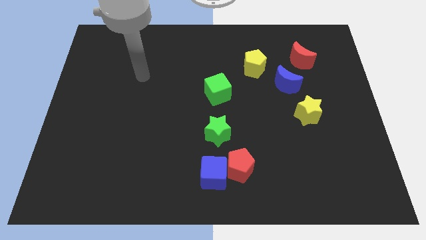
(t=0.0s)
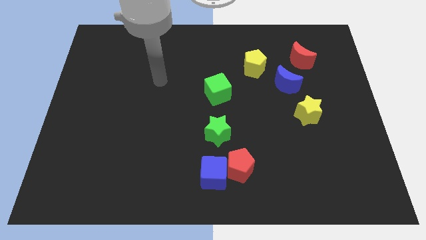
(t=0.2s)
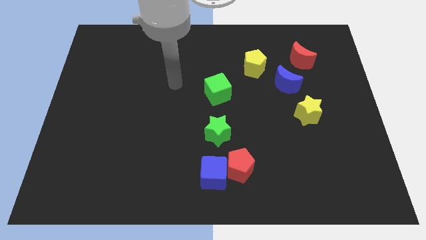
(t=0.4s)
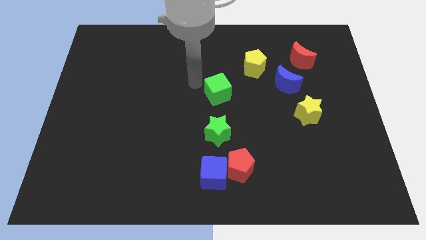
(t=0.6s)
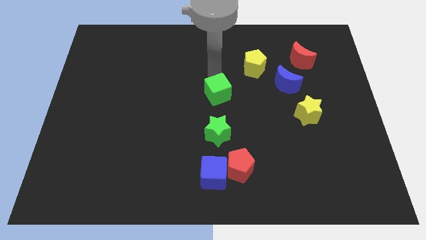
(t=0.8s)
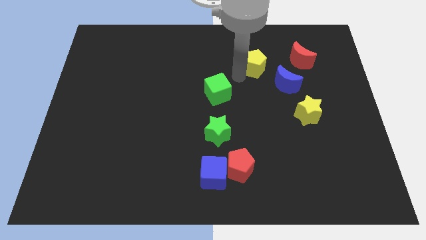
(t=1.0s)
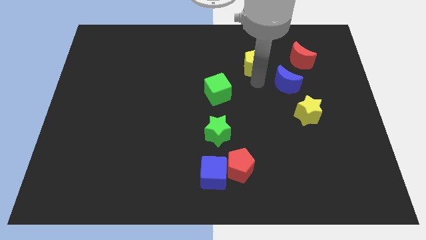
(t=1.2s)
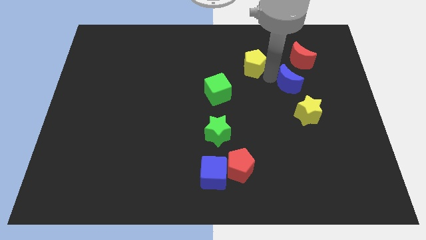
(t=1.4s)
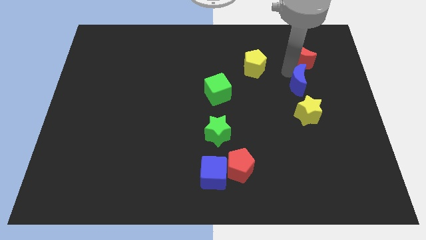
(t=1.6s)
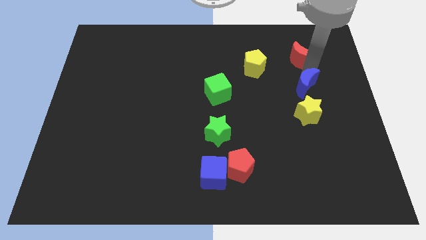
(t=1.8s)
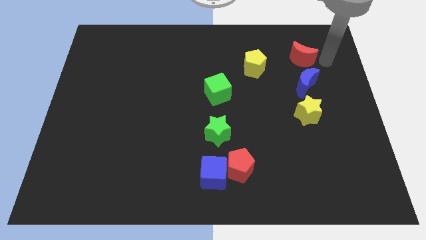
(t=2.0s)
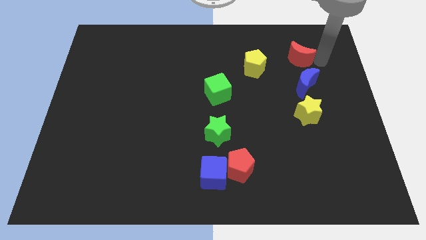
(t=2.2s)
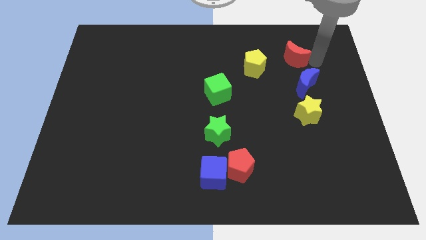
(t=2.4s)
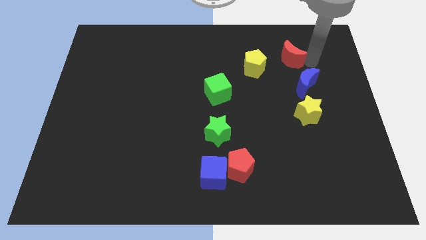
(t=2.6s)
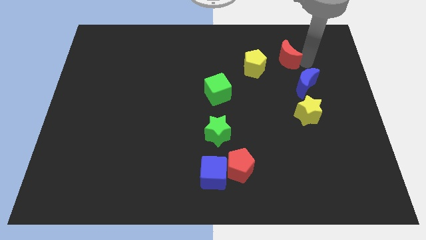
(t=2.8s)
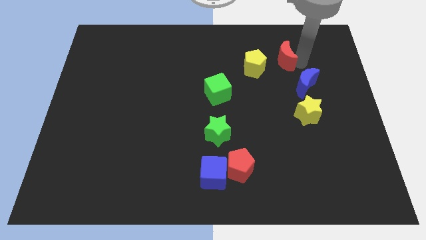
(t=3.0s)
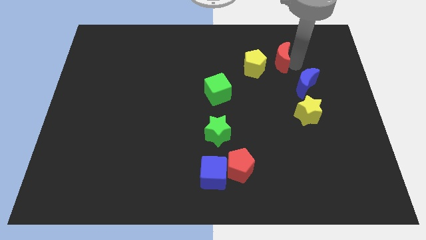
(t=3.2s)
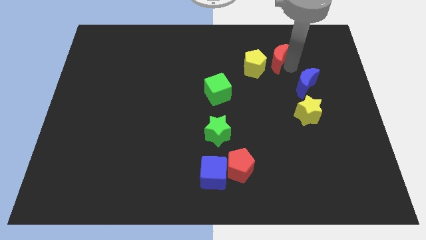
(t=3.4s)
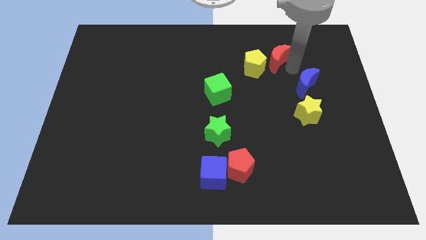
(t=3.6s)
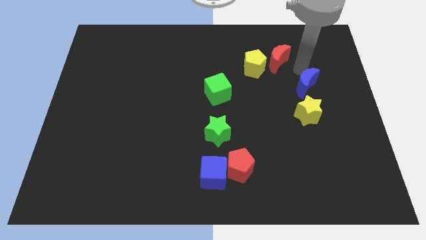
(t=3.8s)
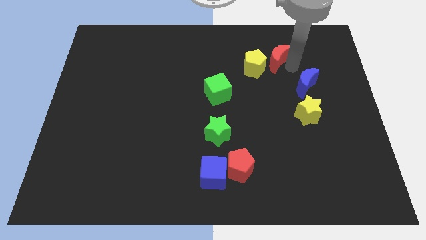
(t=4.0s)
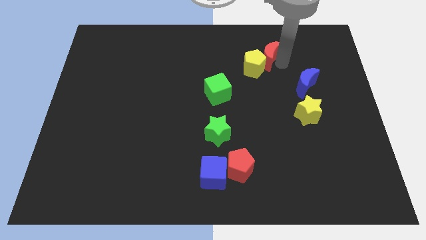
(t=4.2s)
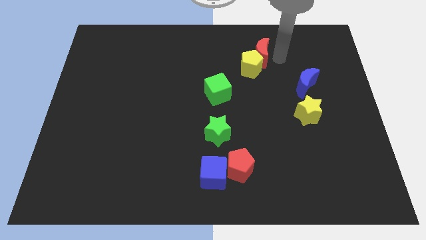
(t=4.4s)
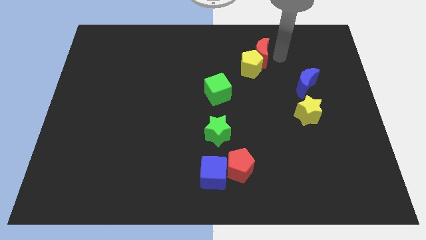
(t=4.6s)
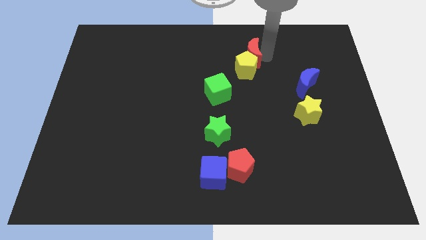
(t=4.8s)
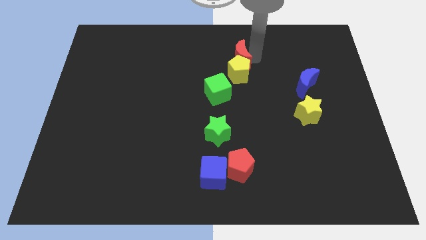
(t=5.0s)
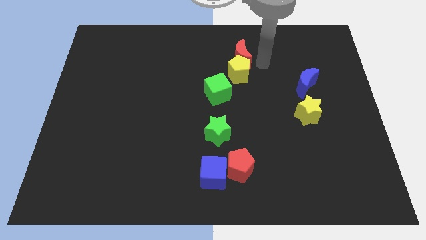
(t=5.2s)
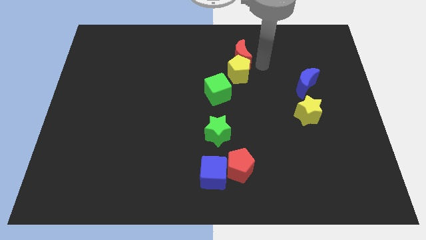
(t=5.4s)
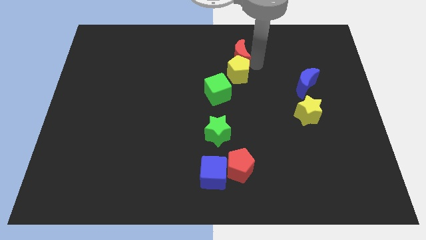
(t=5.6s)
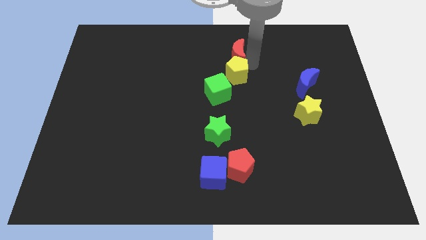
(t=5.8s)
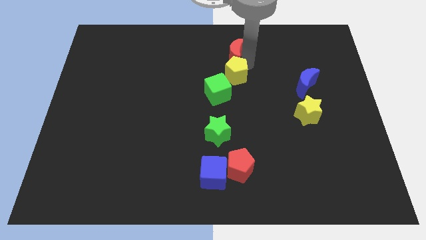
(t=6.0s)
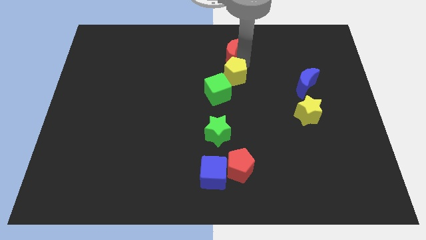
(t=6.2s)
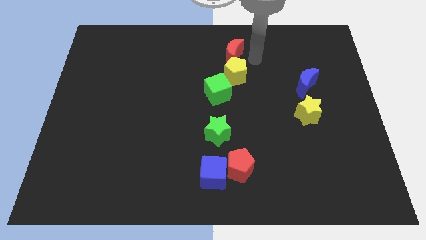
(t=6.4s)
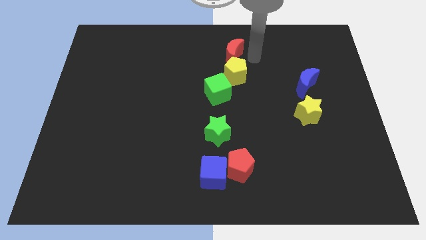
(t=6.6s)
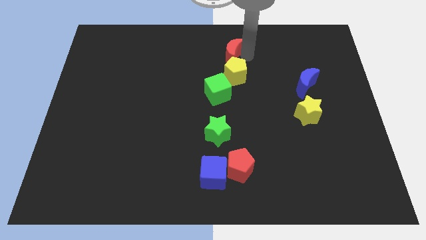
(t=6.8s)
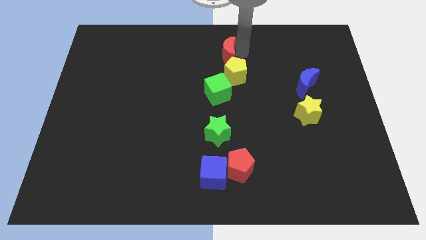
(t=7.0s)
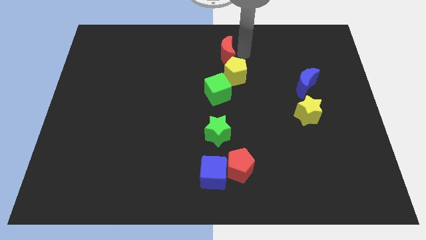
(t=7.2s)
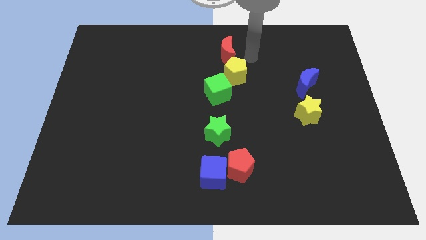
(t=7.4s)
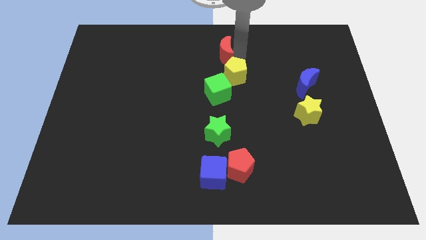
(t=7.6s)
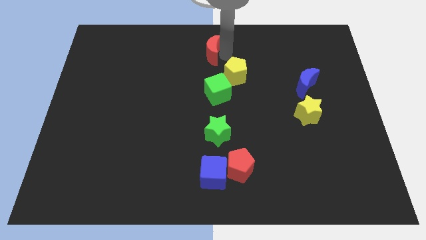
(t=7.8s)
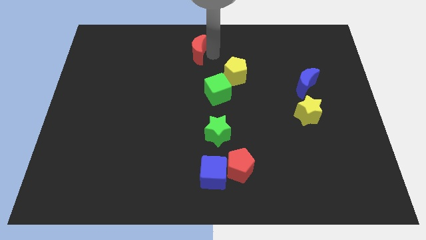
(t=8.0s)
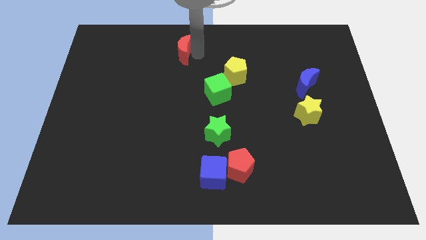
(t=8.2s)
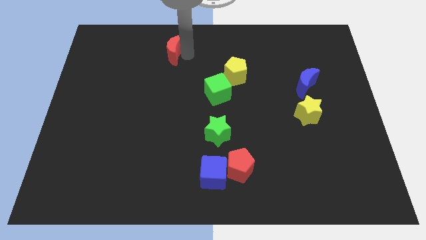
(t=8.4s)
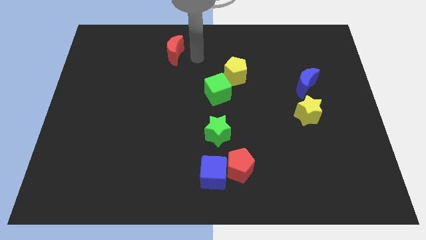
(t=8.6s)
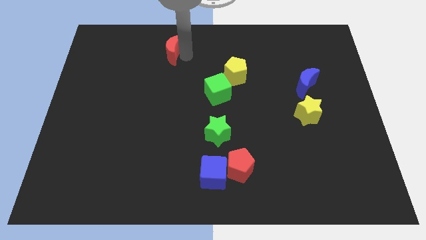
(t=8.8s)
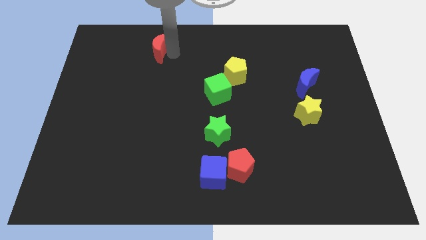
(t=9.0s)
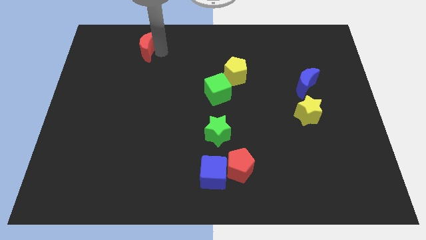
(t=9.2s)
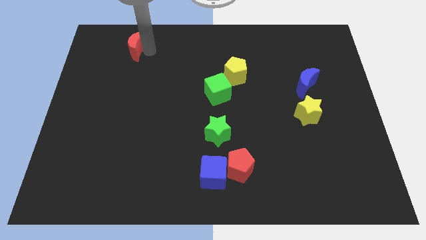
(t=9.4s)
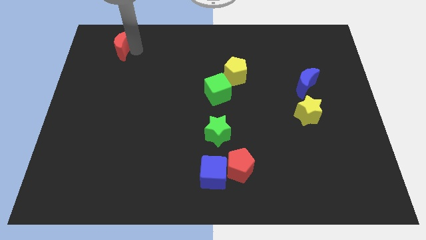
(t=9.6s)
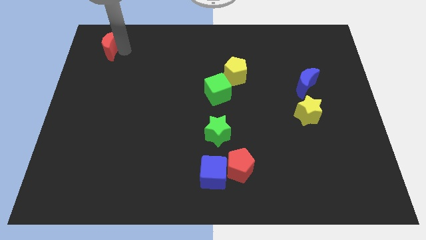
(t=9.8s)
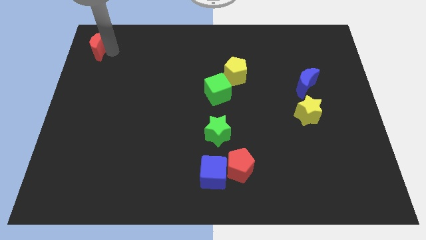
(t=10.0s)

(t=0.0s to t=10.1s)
push the red moon to the top left

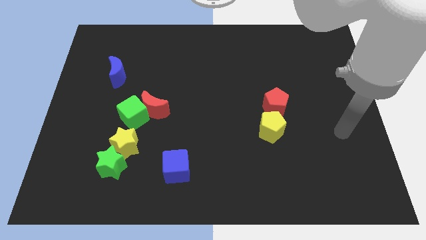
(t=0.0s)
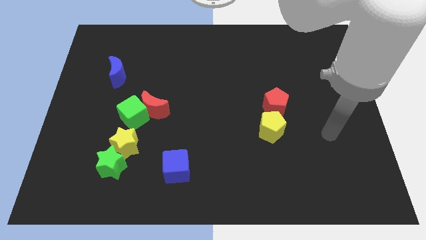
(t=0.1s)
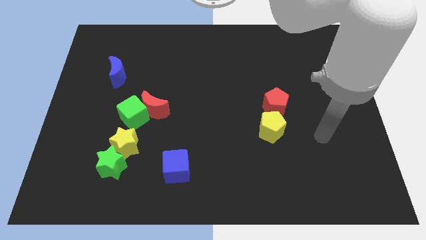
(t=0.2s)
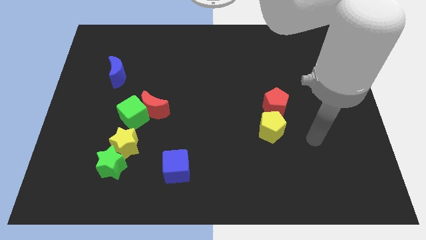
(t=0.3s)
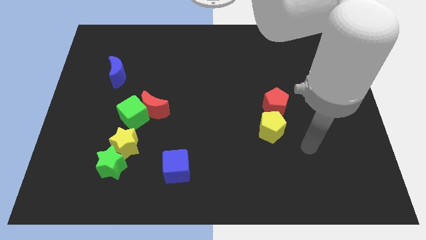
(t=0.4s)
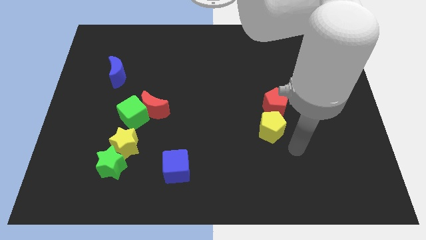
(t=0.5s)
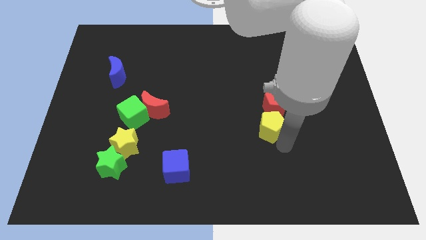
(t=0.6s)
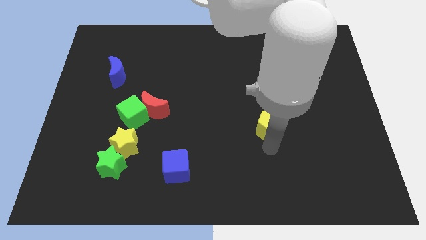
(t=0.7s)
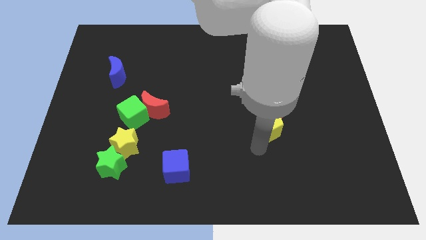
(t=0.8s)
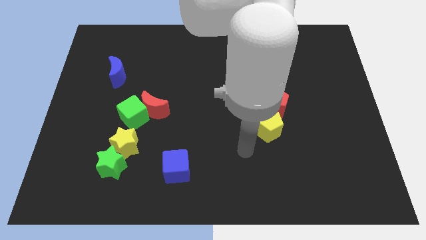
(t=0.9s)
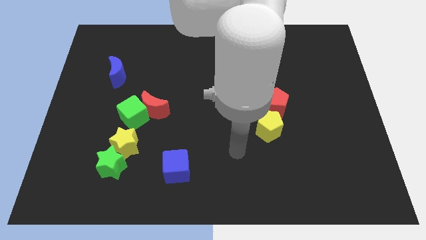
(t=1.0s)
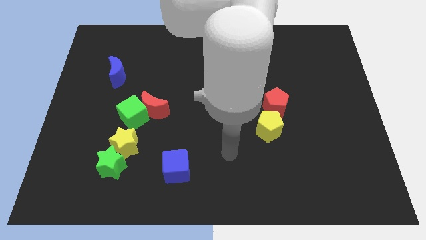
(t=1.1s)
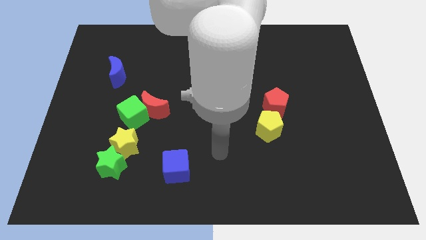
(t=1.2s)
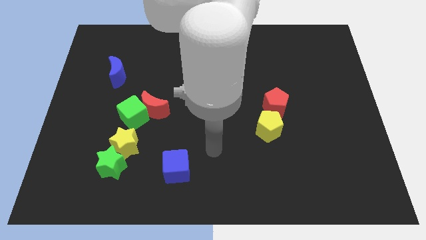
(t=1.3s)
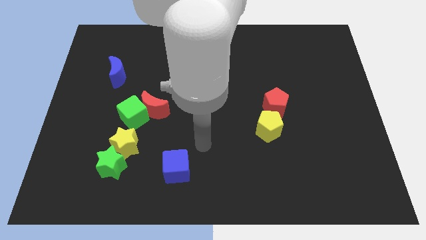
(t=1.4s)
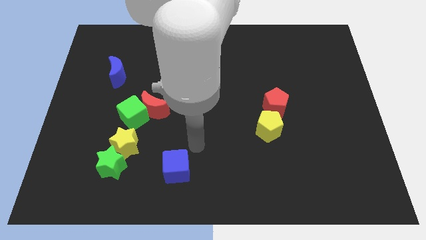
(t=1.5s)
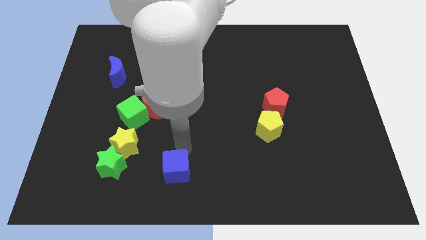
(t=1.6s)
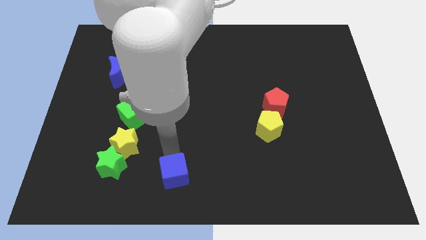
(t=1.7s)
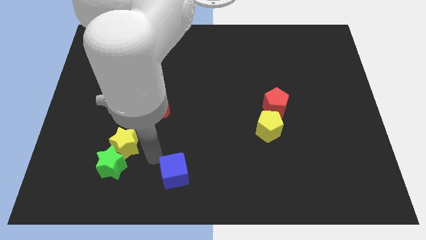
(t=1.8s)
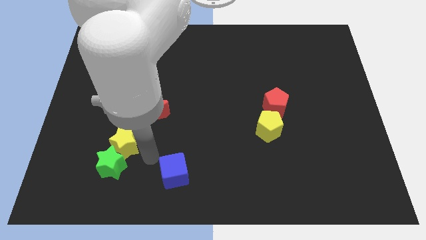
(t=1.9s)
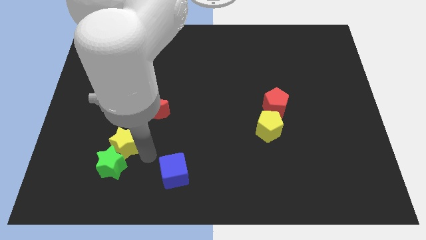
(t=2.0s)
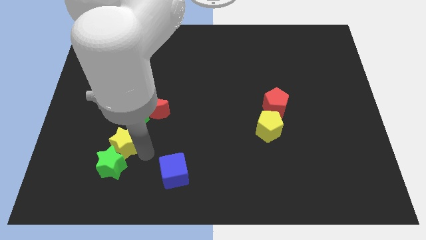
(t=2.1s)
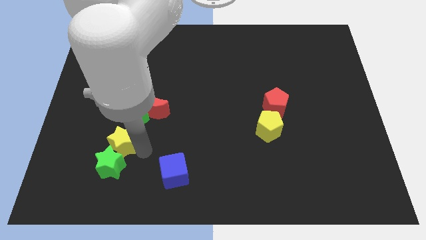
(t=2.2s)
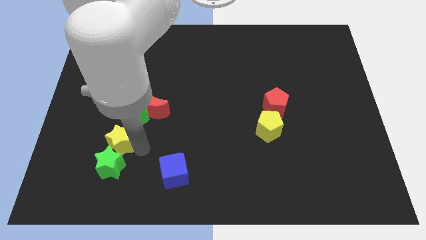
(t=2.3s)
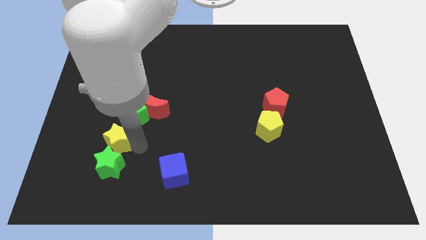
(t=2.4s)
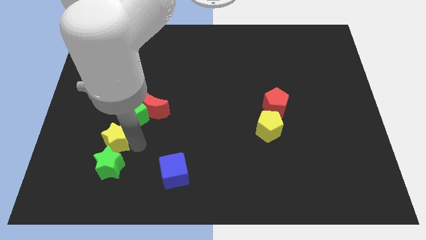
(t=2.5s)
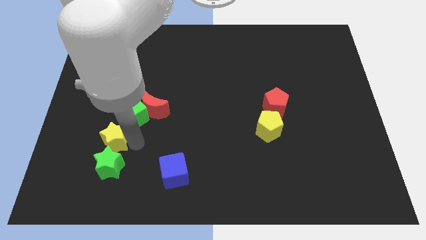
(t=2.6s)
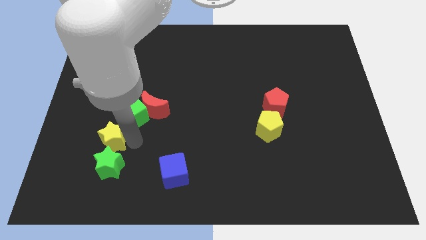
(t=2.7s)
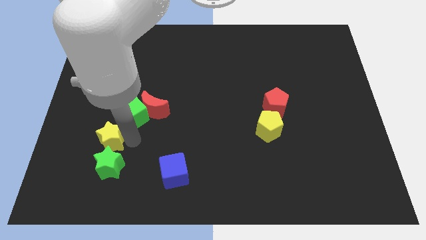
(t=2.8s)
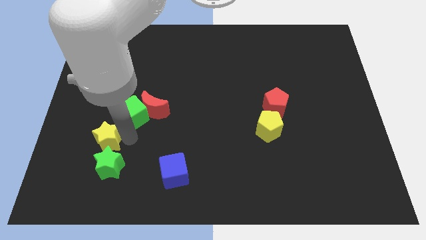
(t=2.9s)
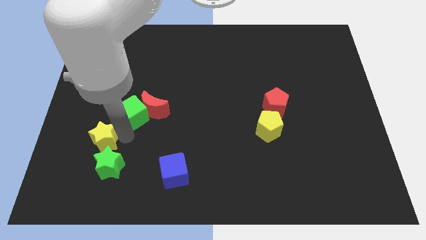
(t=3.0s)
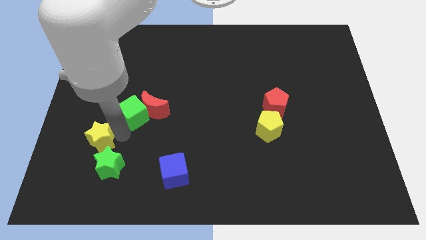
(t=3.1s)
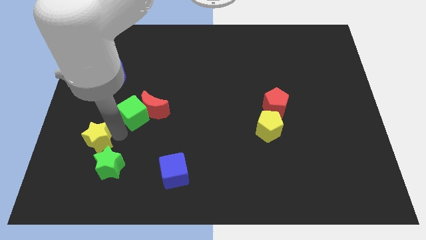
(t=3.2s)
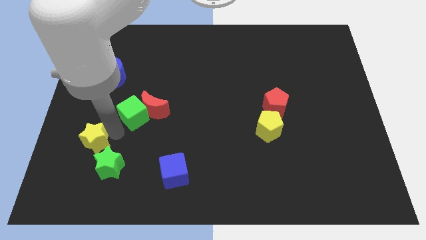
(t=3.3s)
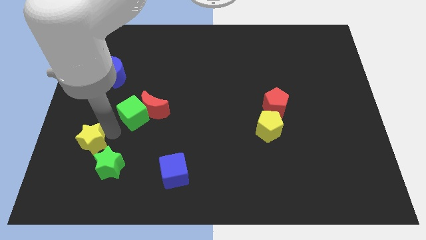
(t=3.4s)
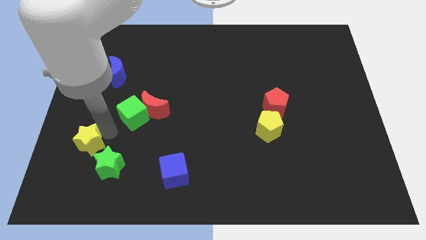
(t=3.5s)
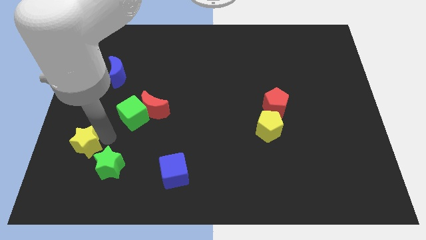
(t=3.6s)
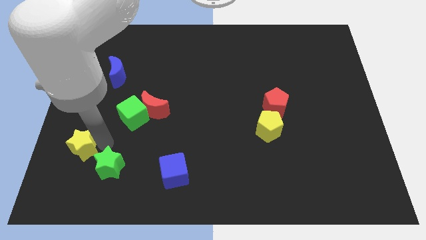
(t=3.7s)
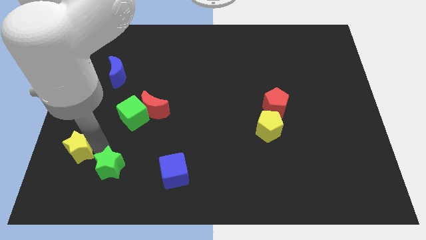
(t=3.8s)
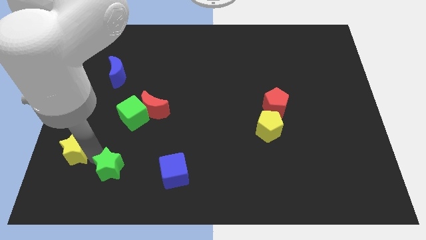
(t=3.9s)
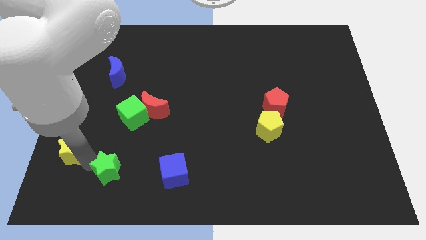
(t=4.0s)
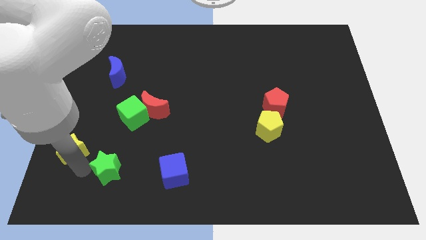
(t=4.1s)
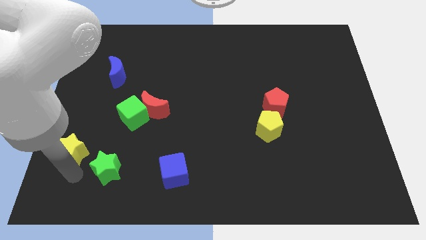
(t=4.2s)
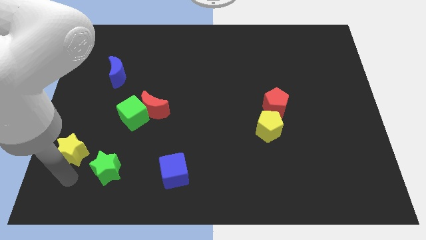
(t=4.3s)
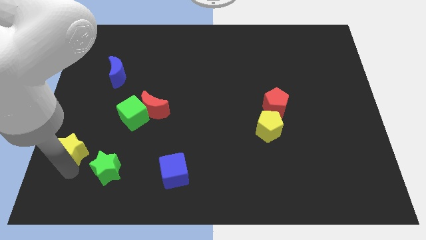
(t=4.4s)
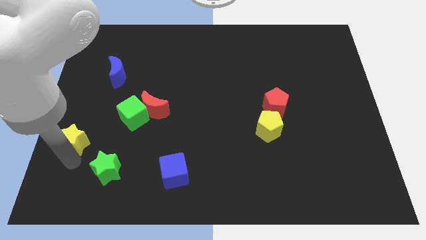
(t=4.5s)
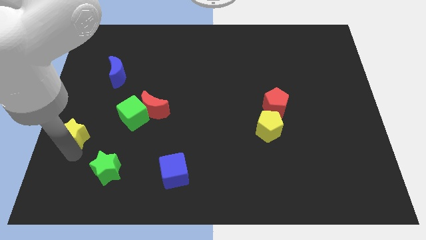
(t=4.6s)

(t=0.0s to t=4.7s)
put the yellow star to the left side
